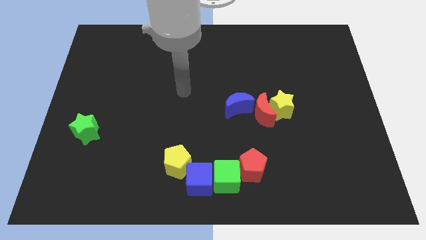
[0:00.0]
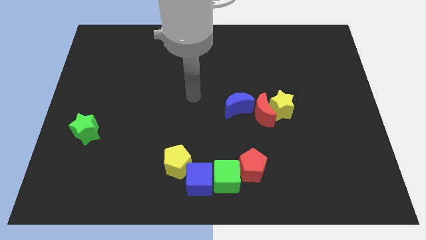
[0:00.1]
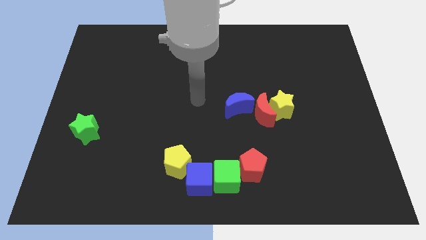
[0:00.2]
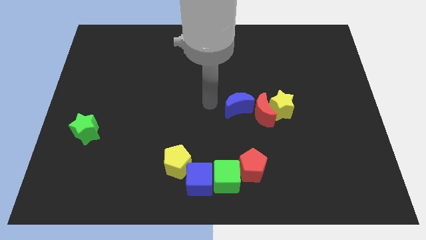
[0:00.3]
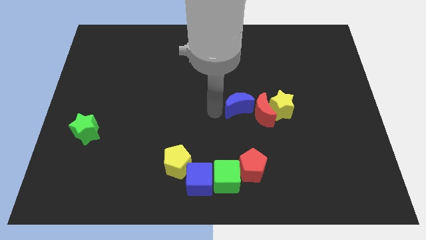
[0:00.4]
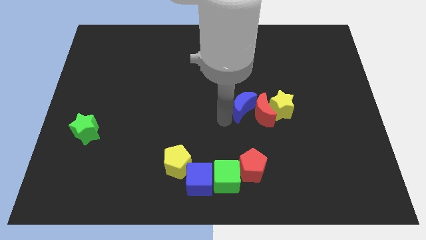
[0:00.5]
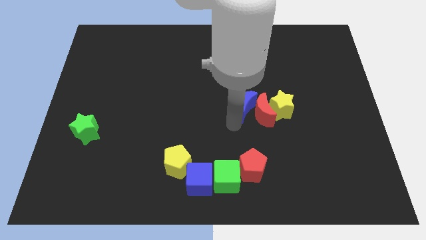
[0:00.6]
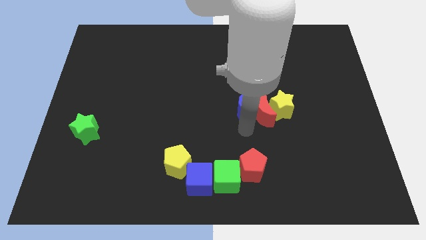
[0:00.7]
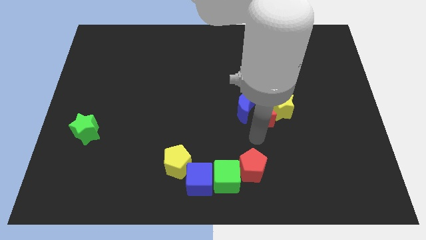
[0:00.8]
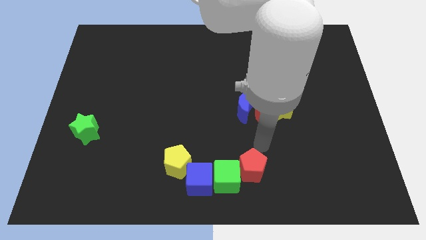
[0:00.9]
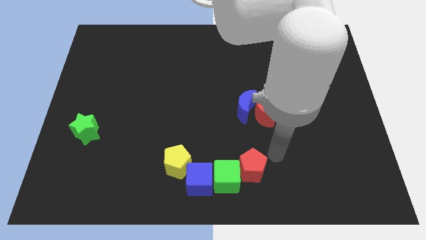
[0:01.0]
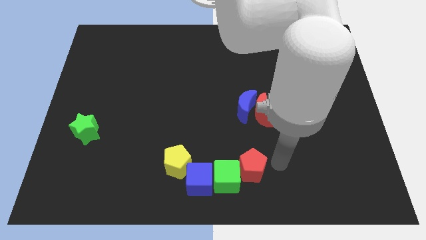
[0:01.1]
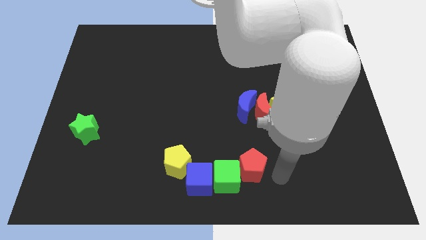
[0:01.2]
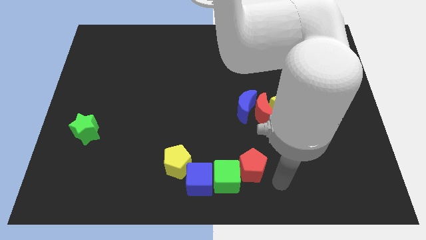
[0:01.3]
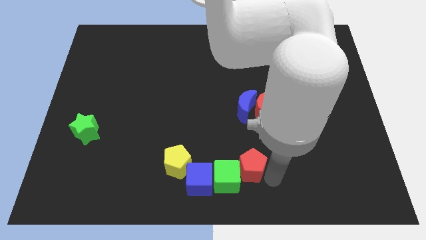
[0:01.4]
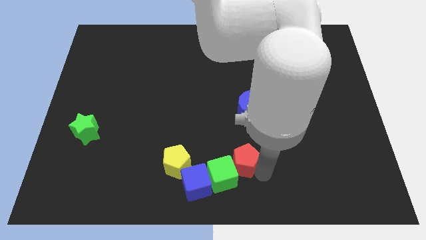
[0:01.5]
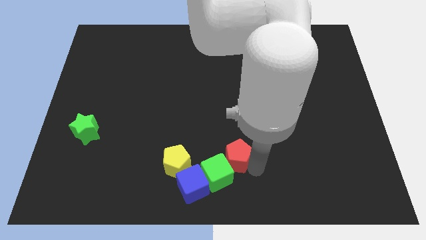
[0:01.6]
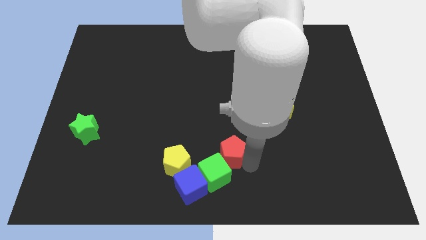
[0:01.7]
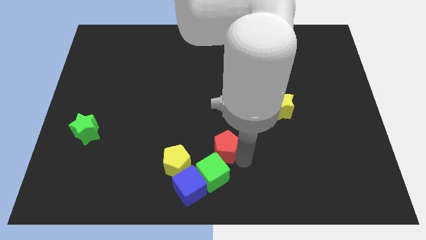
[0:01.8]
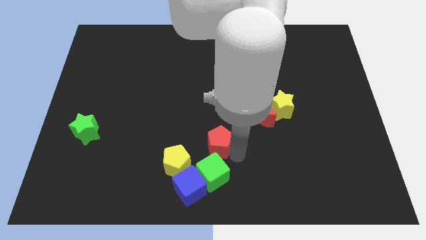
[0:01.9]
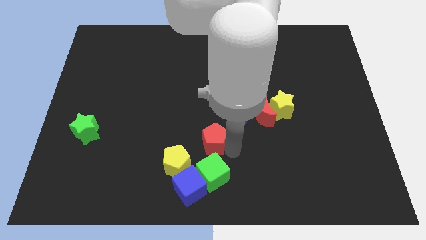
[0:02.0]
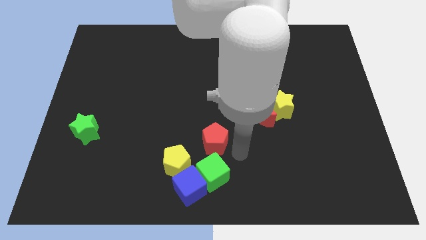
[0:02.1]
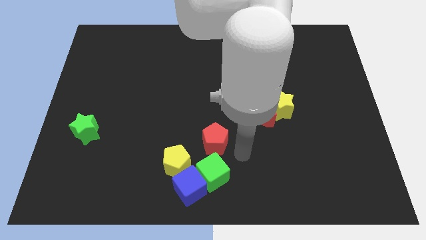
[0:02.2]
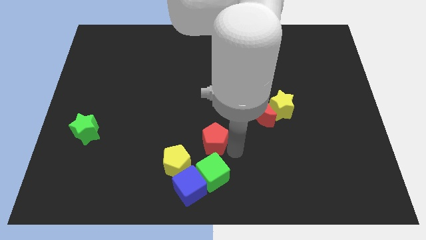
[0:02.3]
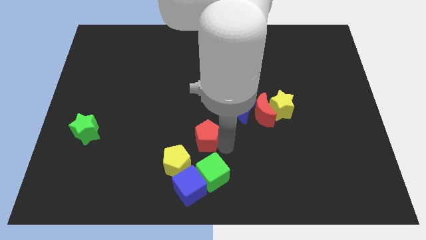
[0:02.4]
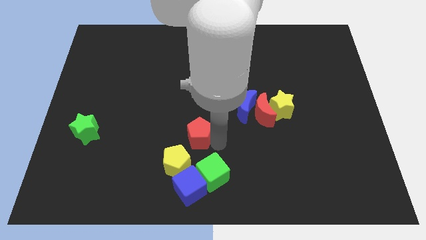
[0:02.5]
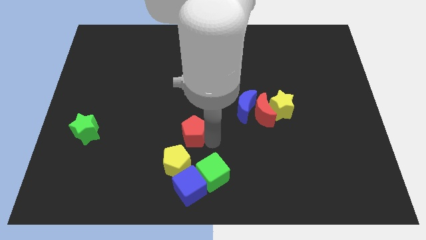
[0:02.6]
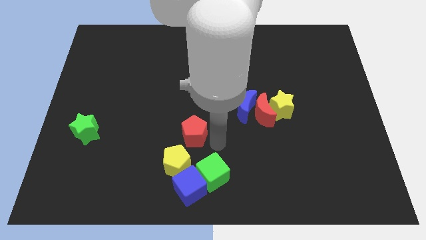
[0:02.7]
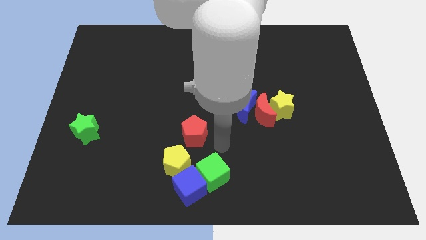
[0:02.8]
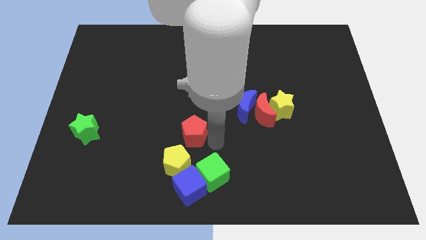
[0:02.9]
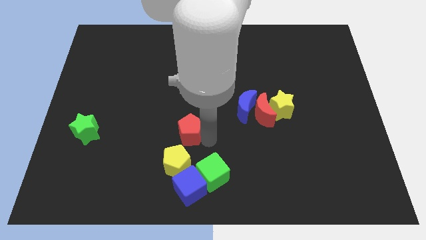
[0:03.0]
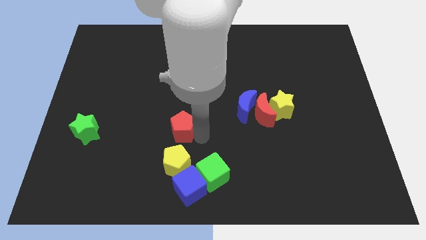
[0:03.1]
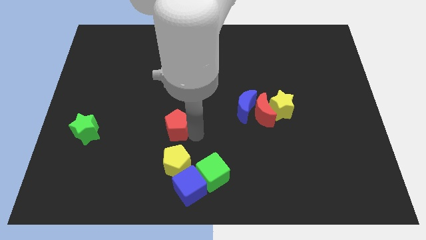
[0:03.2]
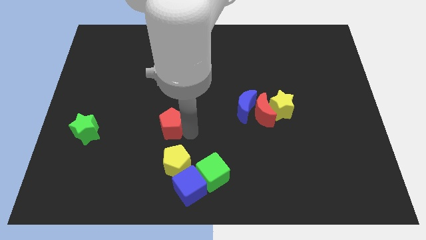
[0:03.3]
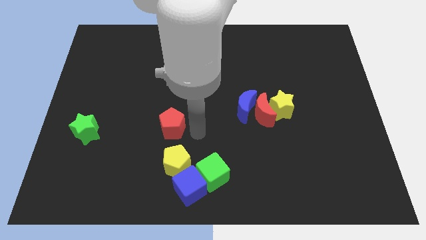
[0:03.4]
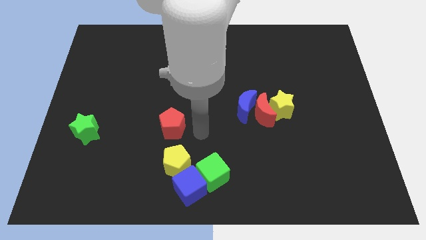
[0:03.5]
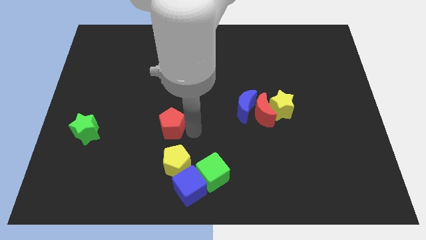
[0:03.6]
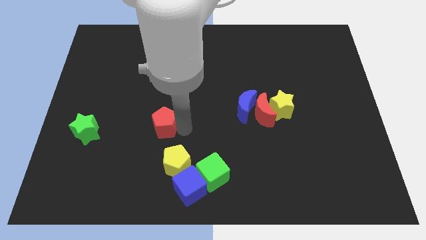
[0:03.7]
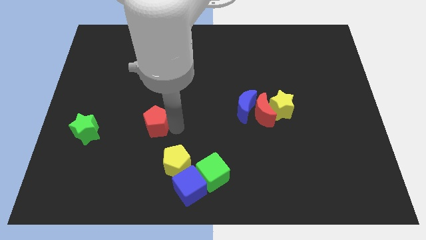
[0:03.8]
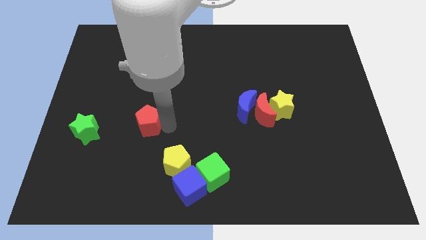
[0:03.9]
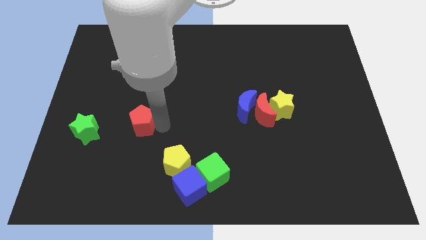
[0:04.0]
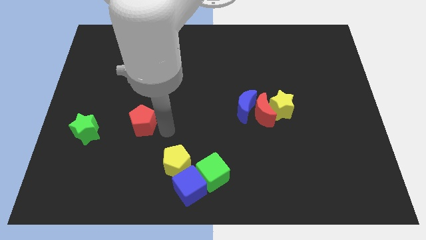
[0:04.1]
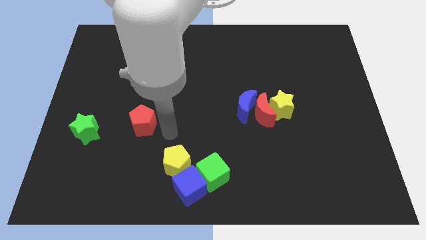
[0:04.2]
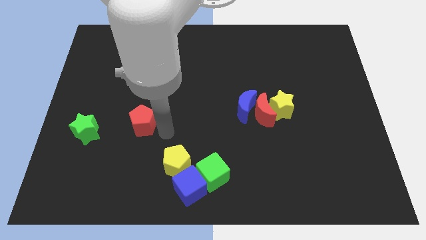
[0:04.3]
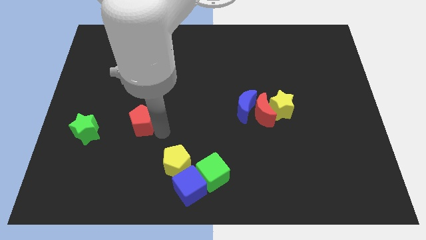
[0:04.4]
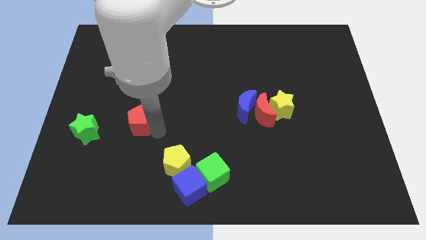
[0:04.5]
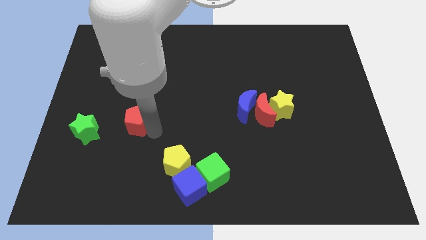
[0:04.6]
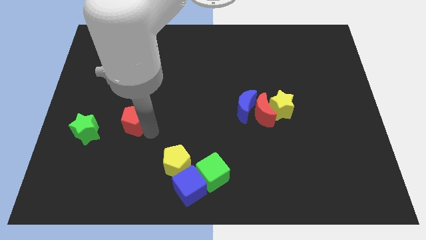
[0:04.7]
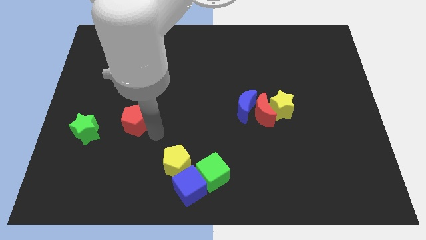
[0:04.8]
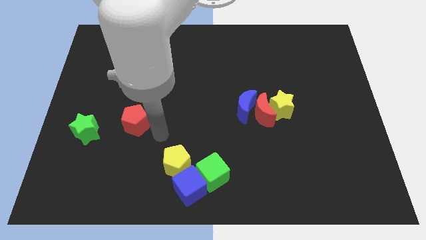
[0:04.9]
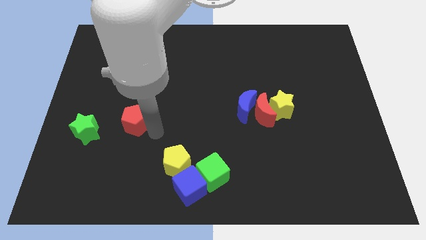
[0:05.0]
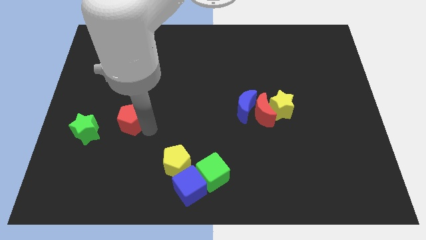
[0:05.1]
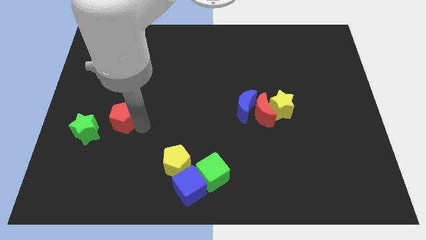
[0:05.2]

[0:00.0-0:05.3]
push the red pentagon to the top right side of the green star

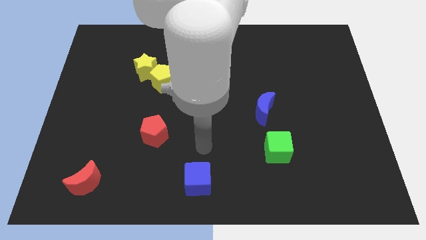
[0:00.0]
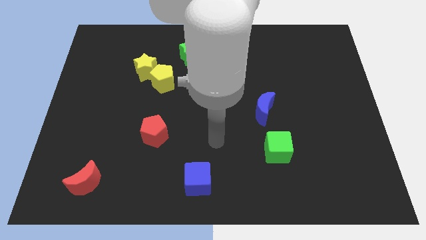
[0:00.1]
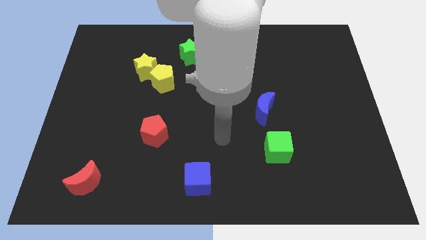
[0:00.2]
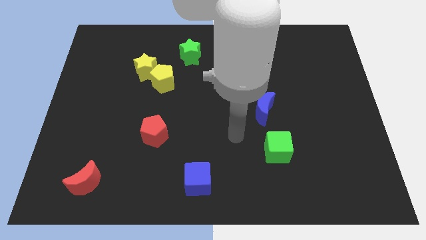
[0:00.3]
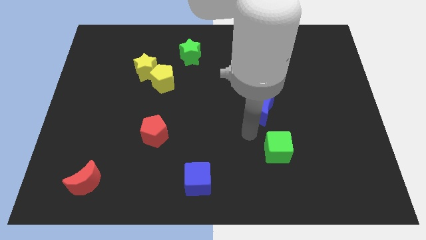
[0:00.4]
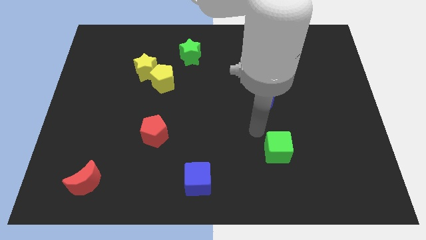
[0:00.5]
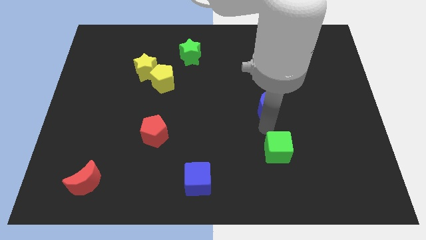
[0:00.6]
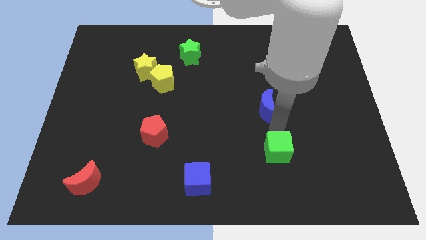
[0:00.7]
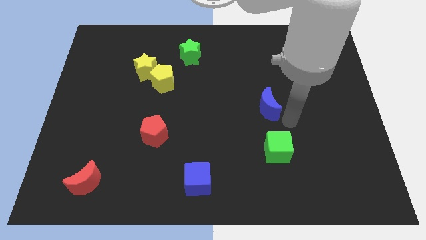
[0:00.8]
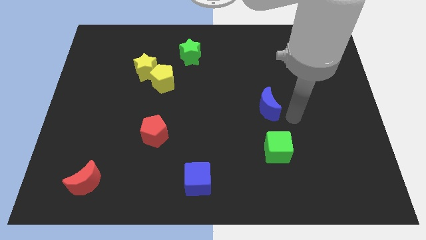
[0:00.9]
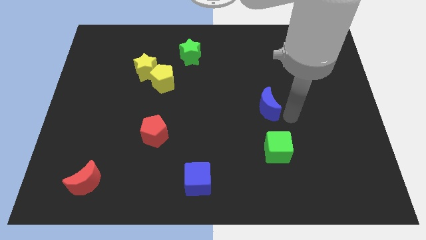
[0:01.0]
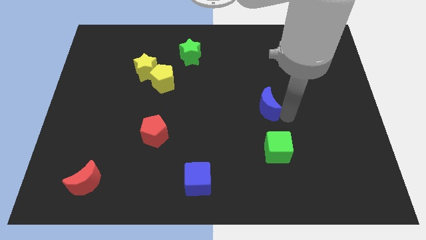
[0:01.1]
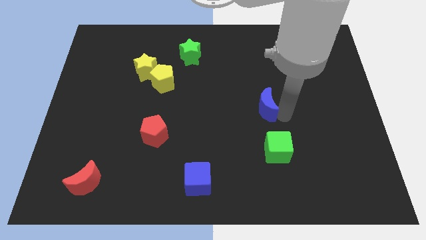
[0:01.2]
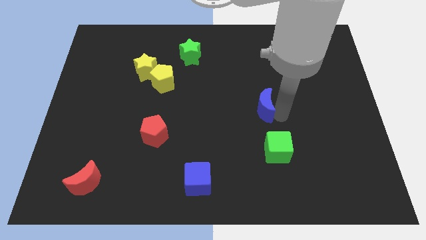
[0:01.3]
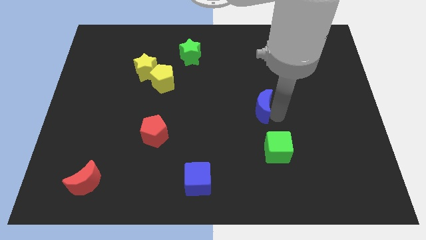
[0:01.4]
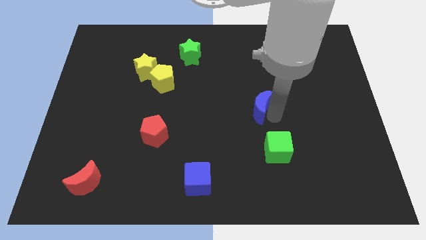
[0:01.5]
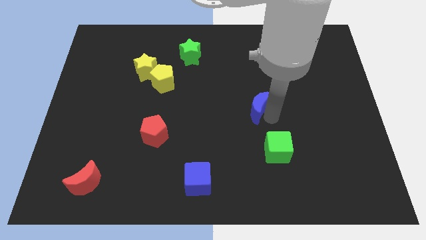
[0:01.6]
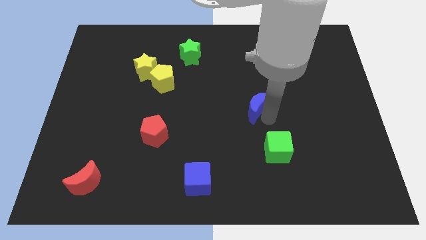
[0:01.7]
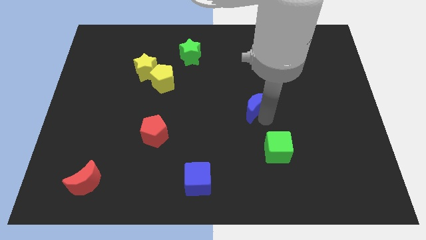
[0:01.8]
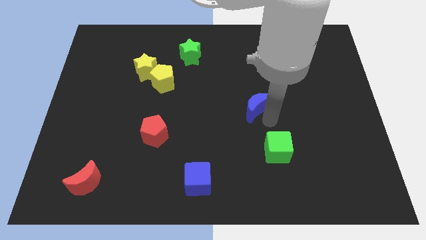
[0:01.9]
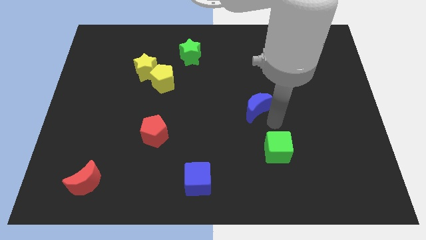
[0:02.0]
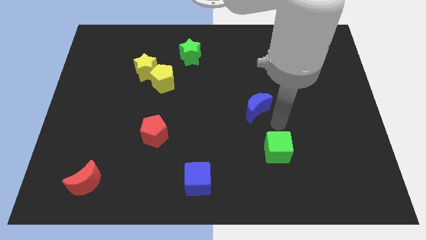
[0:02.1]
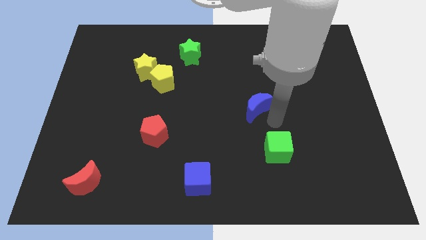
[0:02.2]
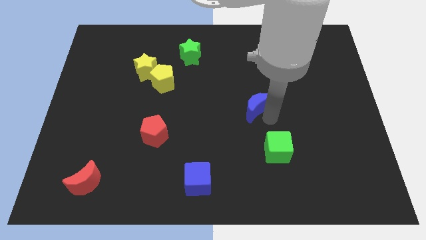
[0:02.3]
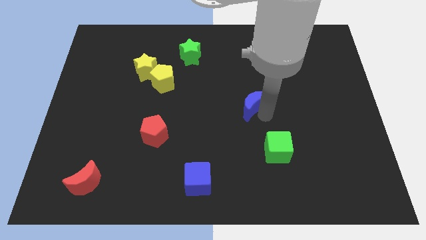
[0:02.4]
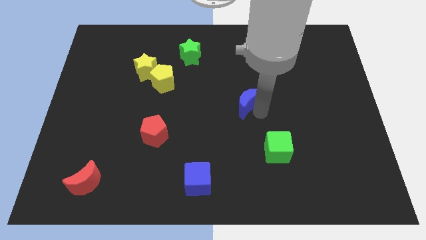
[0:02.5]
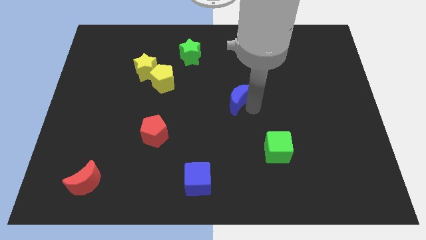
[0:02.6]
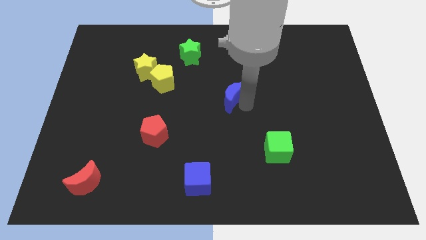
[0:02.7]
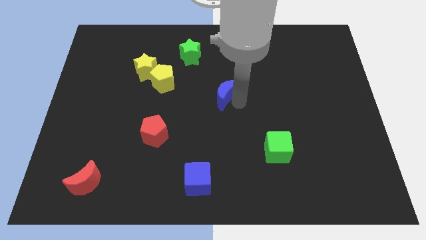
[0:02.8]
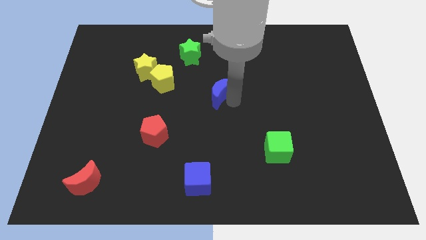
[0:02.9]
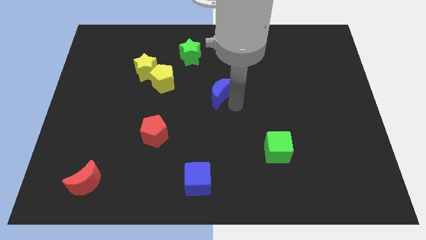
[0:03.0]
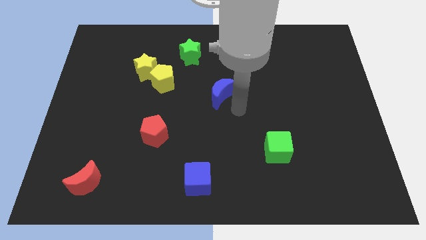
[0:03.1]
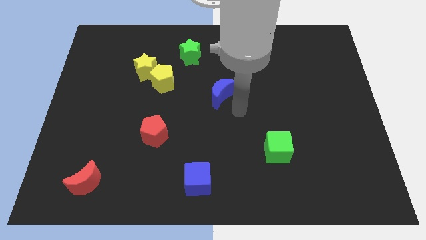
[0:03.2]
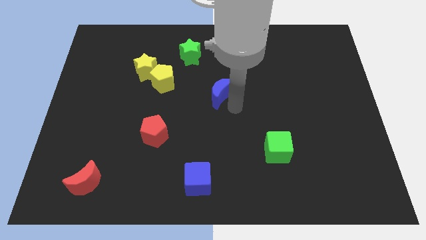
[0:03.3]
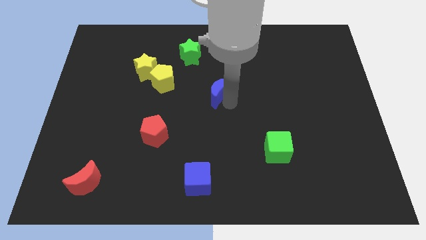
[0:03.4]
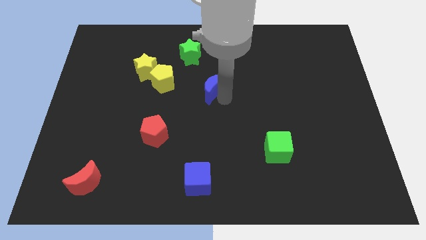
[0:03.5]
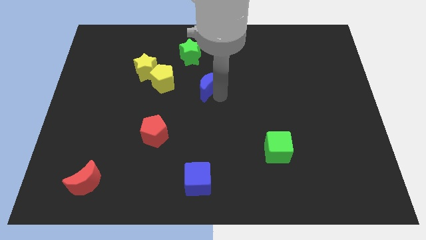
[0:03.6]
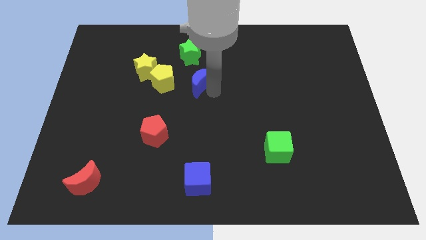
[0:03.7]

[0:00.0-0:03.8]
slide the blue moon to the right of the yellow star
